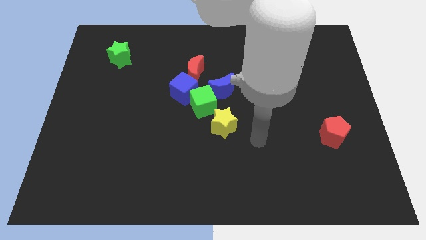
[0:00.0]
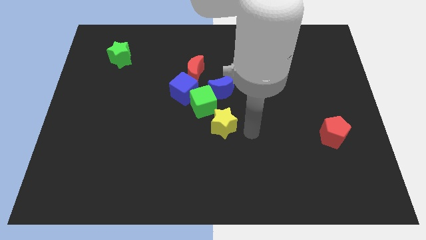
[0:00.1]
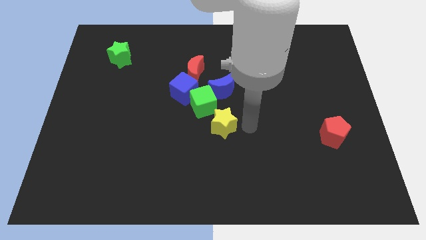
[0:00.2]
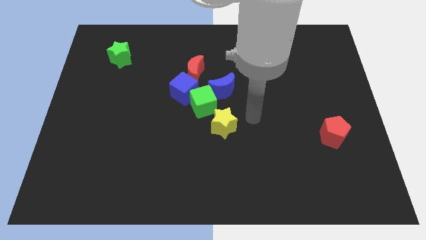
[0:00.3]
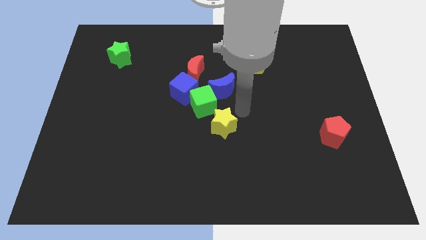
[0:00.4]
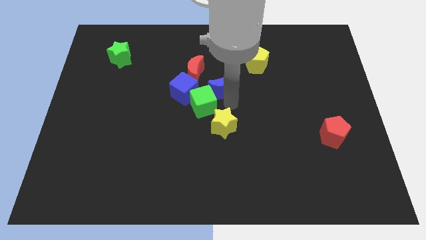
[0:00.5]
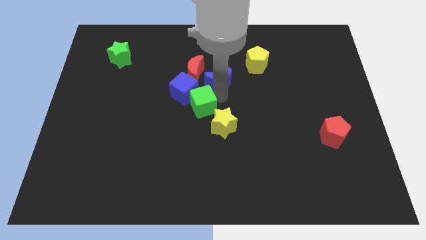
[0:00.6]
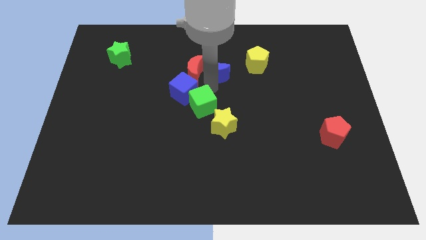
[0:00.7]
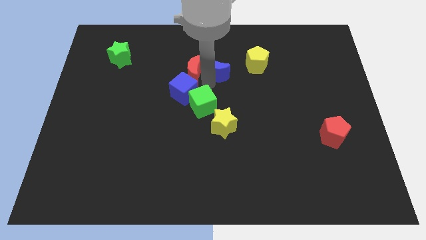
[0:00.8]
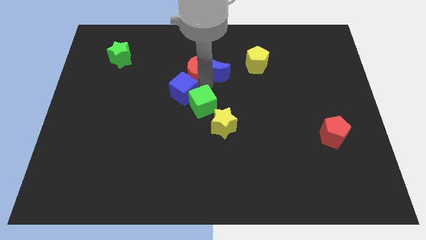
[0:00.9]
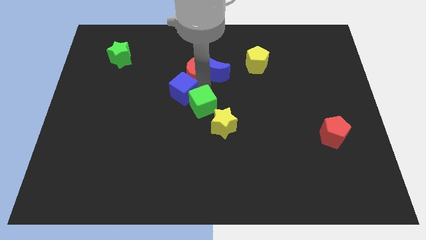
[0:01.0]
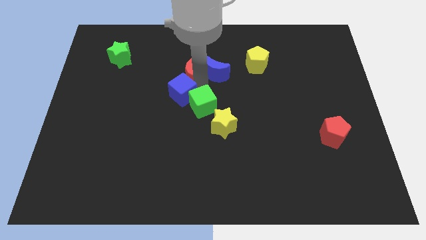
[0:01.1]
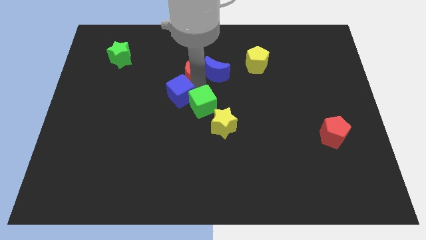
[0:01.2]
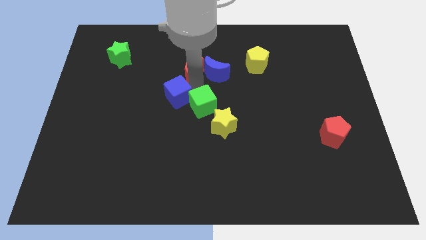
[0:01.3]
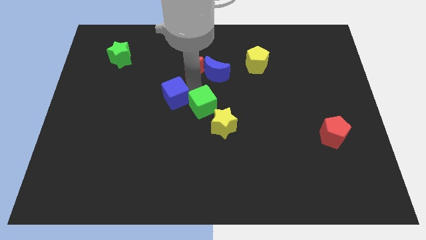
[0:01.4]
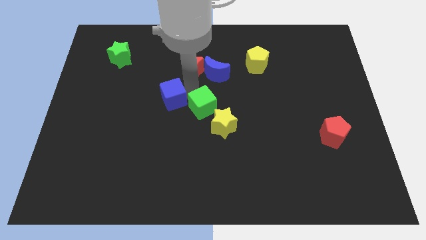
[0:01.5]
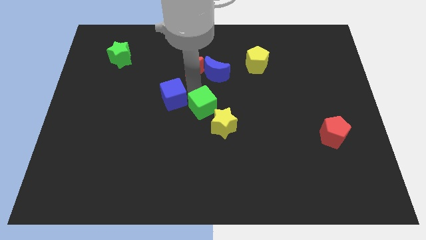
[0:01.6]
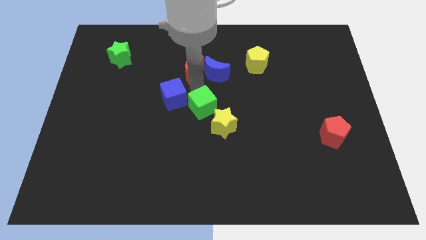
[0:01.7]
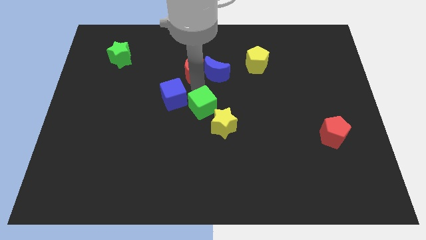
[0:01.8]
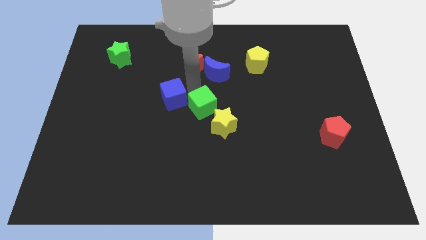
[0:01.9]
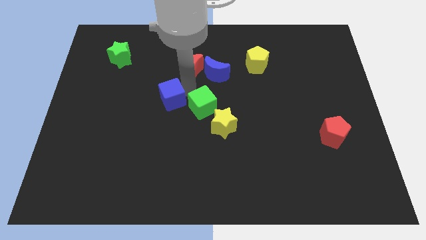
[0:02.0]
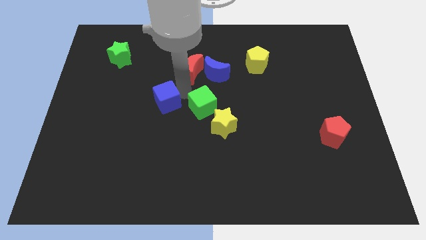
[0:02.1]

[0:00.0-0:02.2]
move the blue cube away from the green cube, red moon, and blue moon

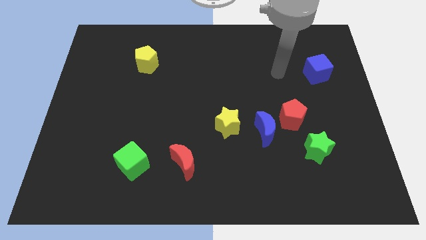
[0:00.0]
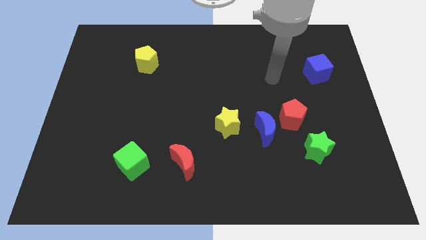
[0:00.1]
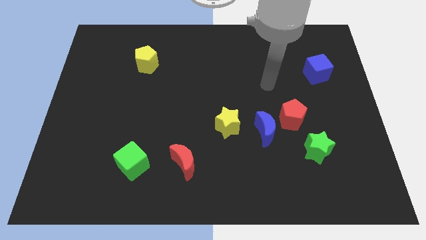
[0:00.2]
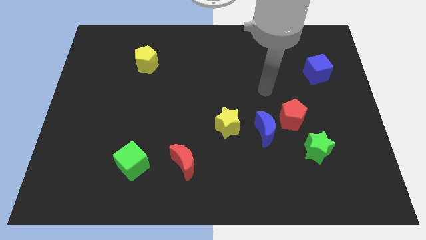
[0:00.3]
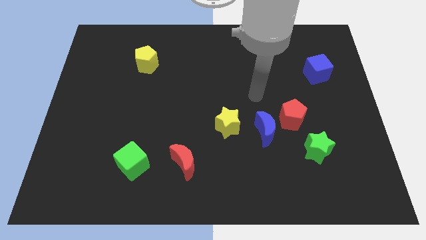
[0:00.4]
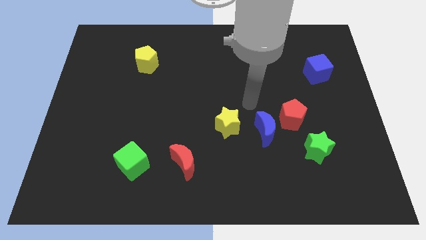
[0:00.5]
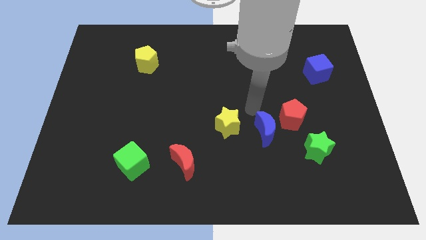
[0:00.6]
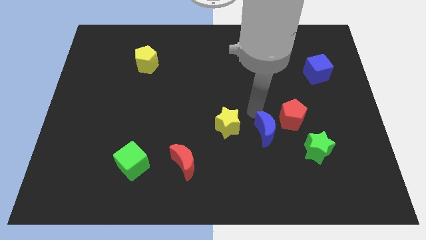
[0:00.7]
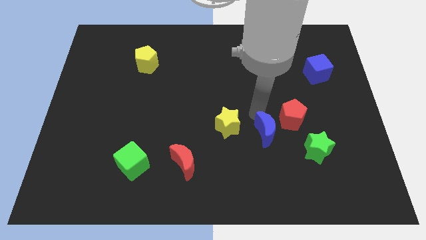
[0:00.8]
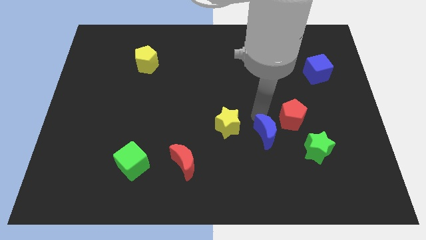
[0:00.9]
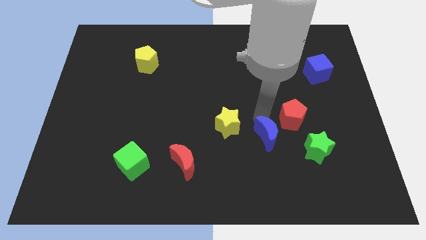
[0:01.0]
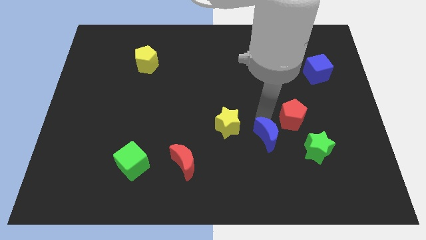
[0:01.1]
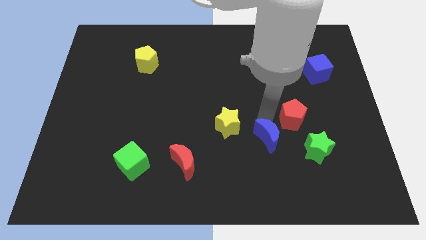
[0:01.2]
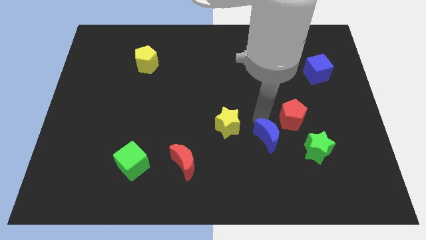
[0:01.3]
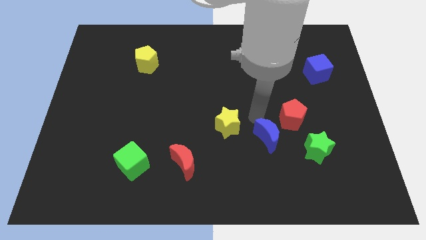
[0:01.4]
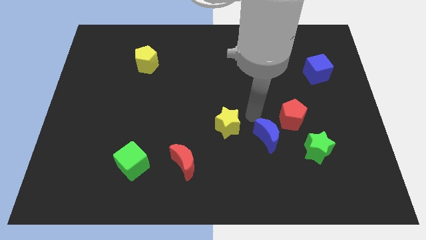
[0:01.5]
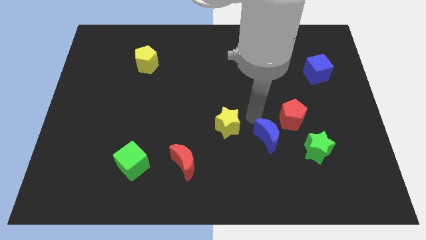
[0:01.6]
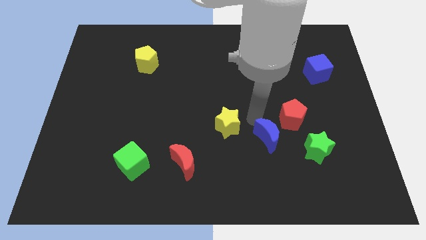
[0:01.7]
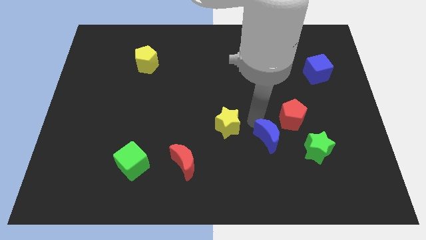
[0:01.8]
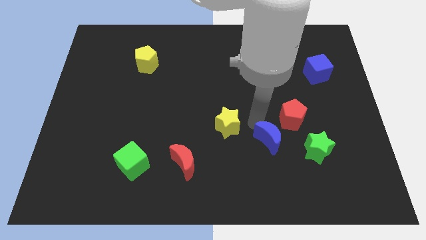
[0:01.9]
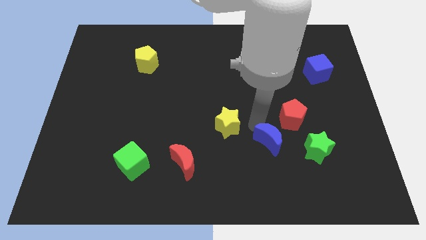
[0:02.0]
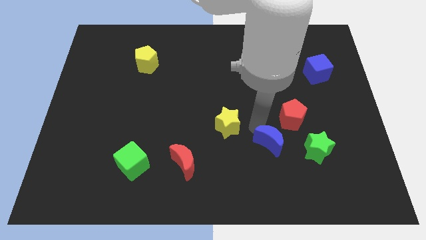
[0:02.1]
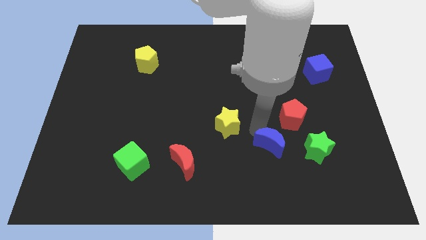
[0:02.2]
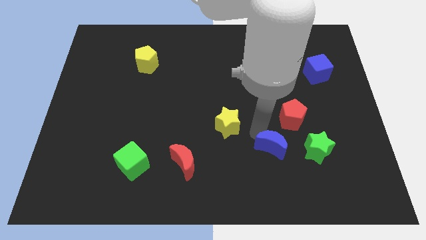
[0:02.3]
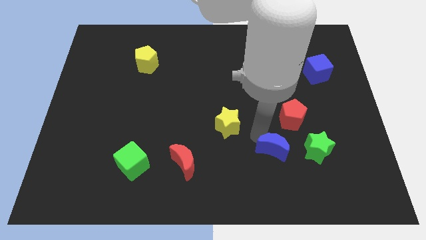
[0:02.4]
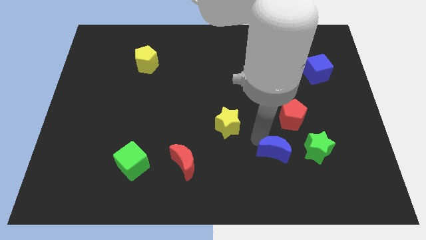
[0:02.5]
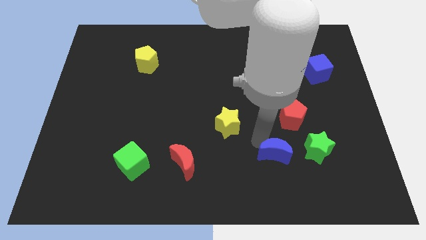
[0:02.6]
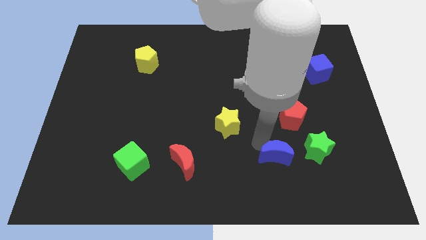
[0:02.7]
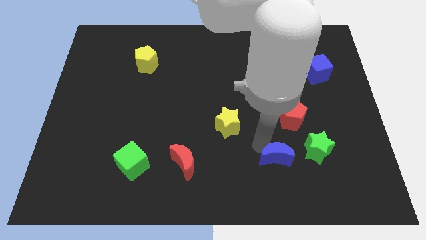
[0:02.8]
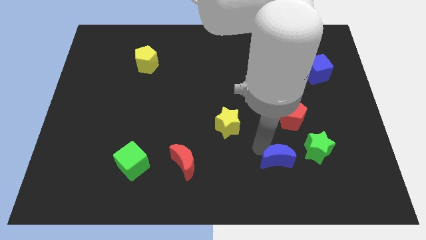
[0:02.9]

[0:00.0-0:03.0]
move the blue moon away from the red pentagon and yellow star

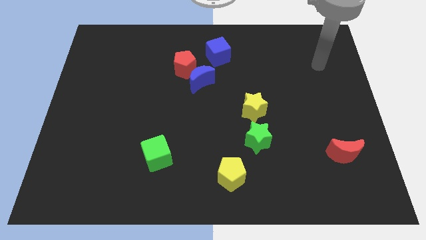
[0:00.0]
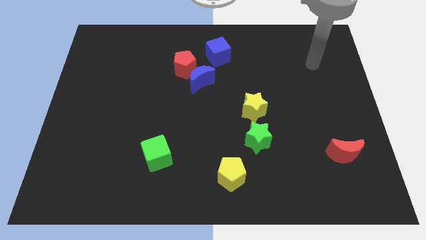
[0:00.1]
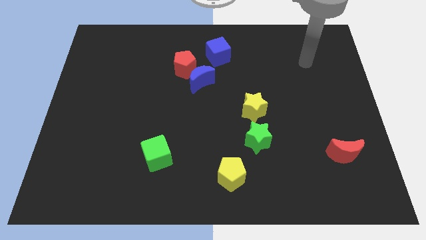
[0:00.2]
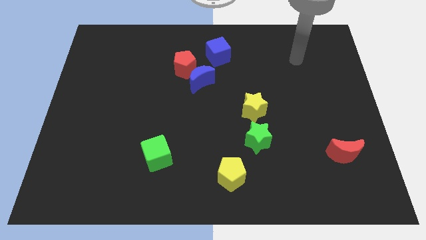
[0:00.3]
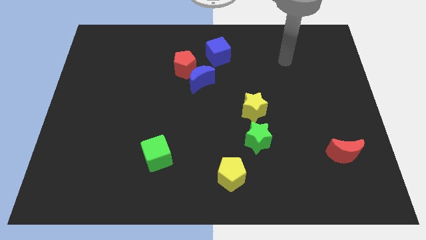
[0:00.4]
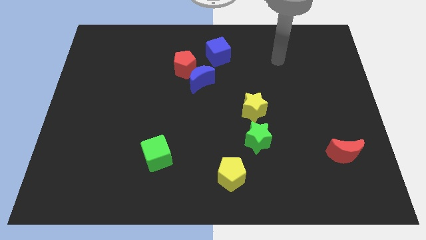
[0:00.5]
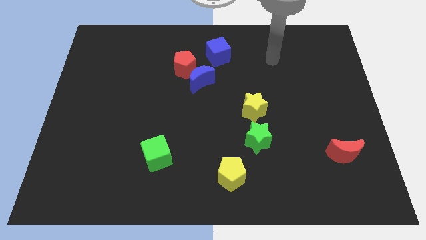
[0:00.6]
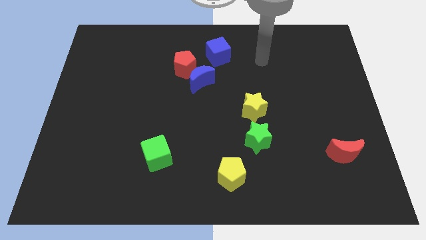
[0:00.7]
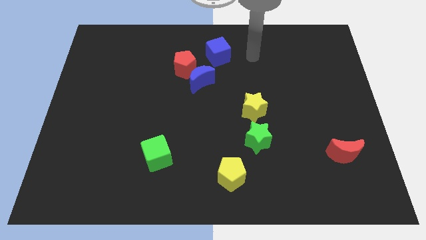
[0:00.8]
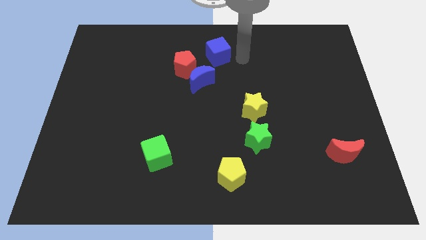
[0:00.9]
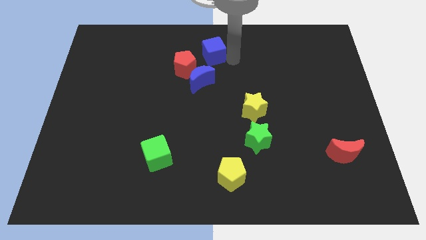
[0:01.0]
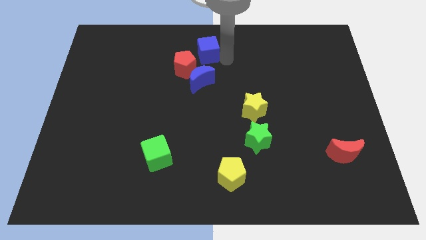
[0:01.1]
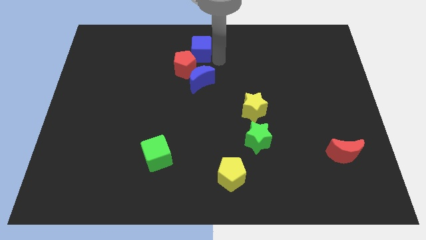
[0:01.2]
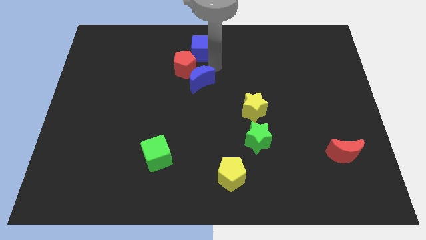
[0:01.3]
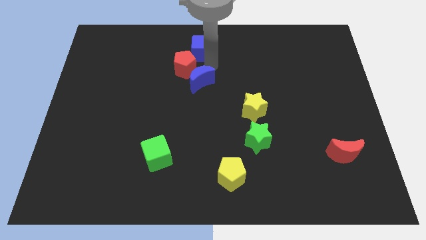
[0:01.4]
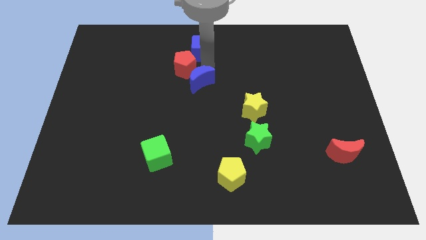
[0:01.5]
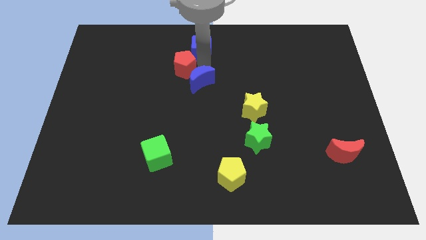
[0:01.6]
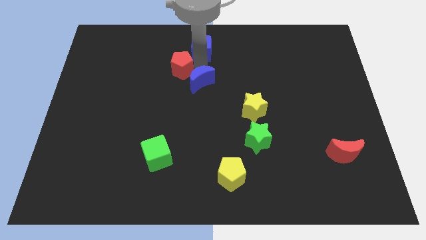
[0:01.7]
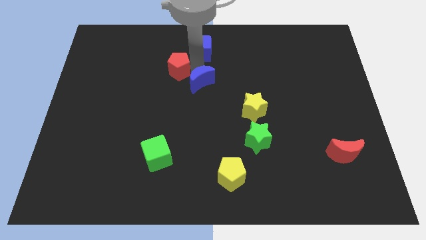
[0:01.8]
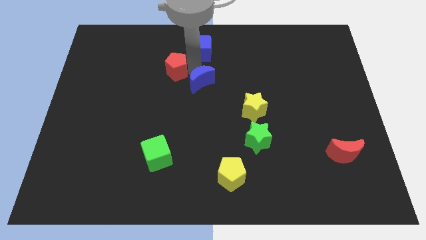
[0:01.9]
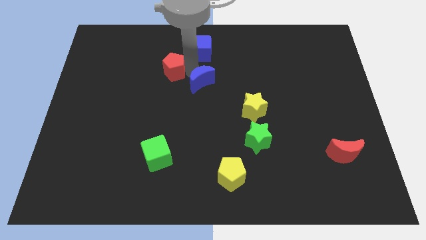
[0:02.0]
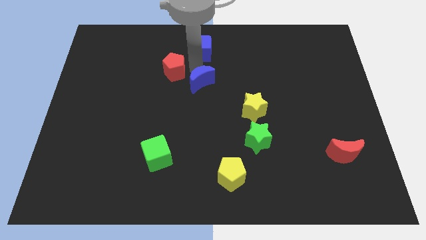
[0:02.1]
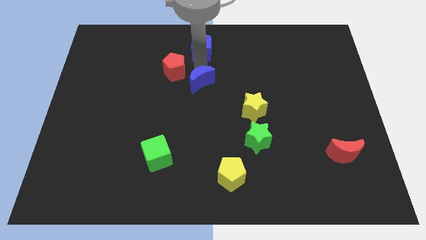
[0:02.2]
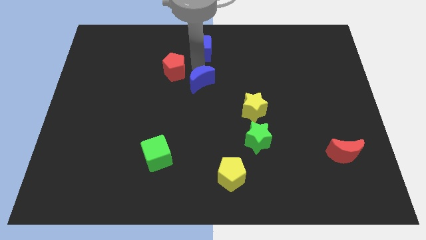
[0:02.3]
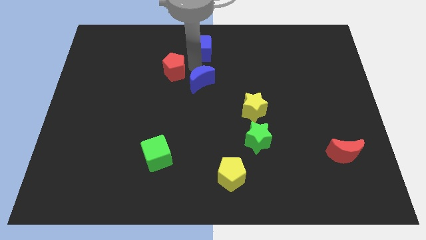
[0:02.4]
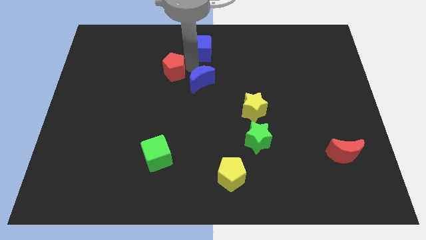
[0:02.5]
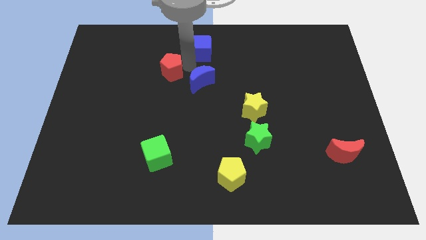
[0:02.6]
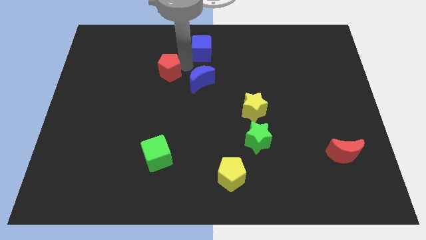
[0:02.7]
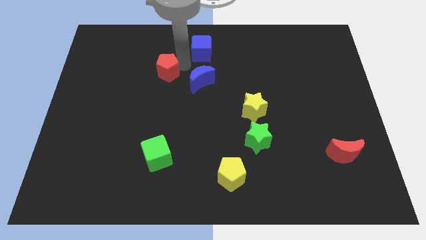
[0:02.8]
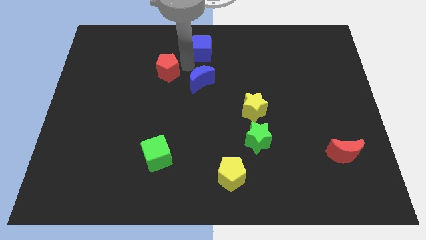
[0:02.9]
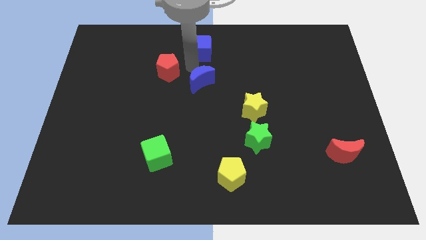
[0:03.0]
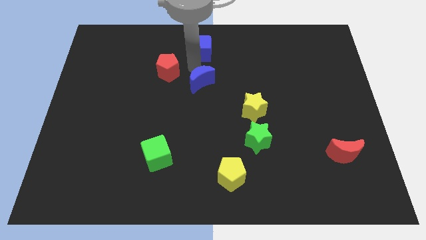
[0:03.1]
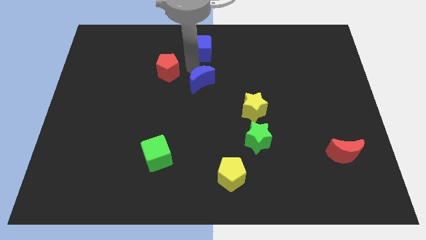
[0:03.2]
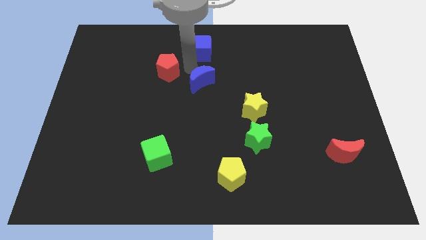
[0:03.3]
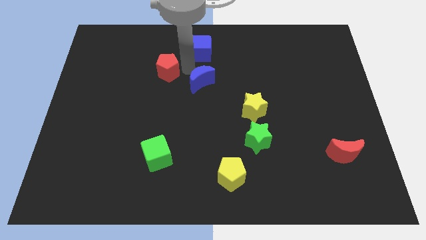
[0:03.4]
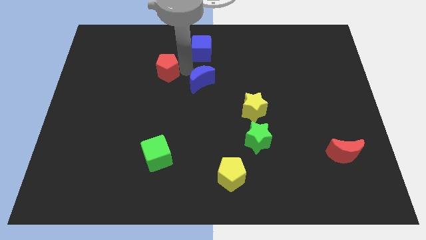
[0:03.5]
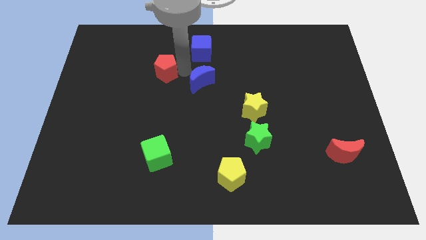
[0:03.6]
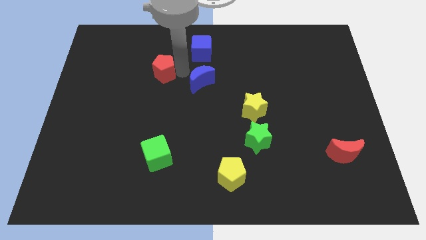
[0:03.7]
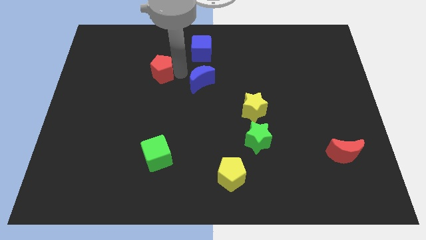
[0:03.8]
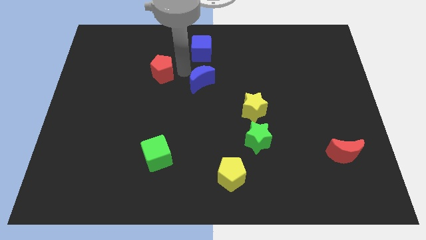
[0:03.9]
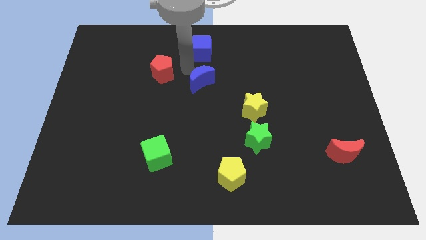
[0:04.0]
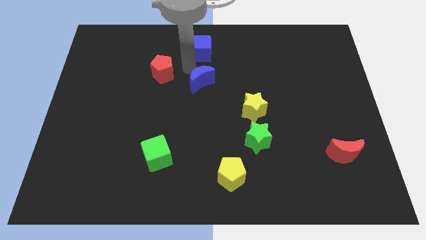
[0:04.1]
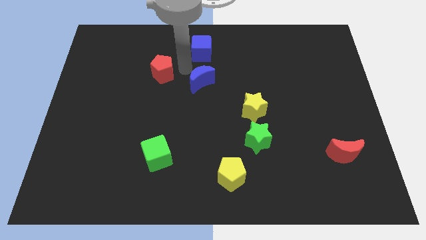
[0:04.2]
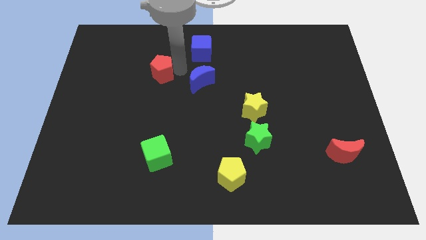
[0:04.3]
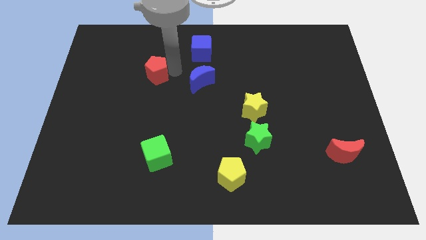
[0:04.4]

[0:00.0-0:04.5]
pull the red pentagon apart from the blue moon and blue cube
